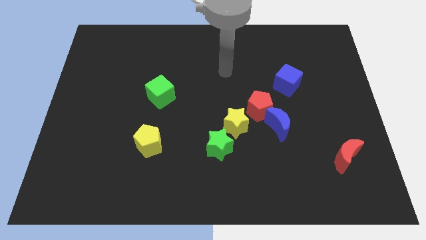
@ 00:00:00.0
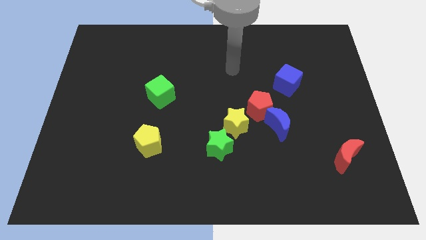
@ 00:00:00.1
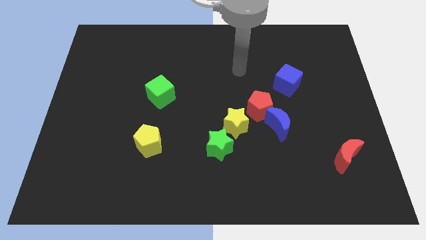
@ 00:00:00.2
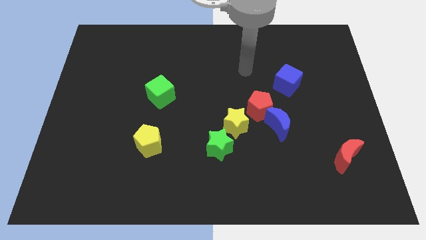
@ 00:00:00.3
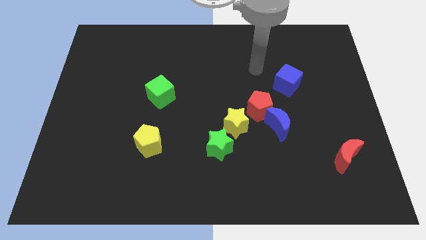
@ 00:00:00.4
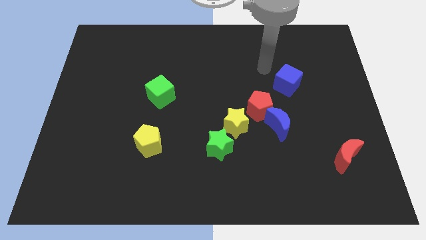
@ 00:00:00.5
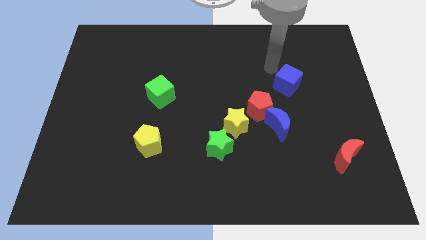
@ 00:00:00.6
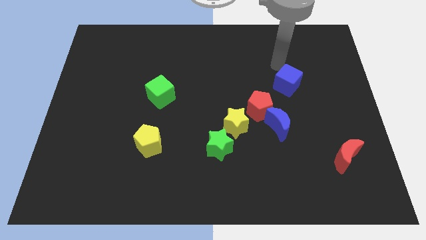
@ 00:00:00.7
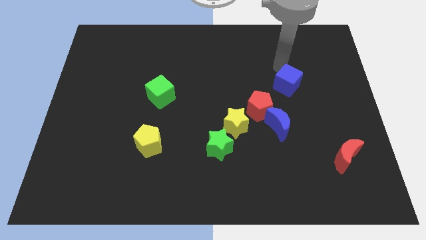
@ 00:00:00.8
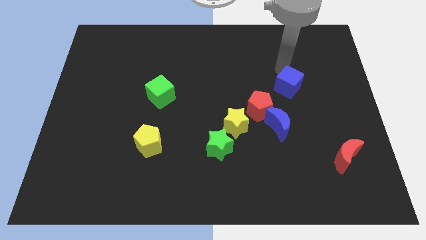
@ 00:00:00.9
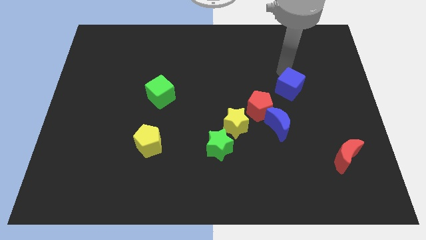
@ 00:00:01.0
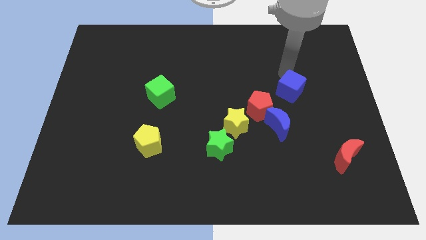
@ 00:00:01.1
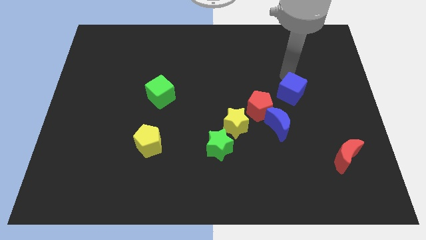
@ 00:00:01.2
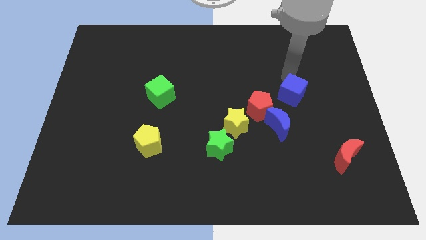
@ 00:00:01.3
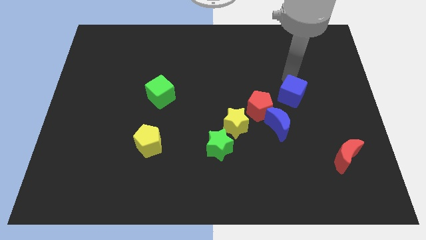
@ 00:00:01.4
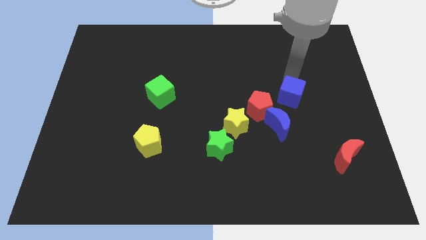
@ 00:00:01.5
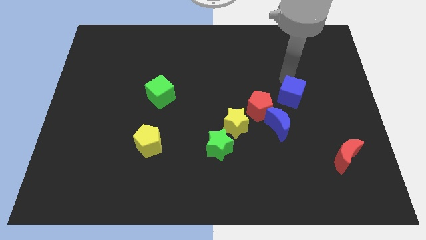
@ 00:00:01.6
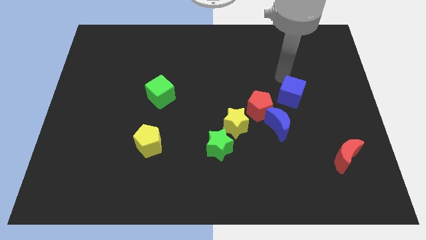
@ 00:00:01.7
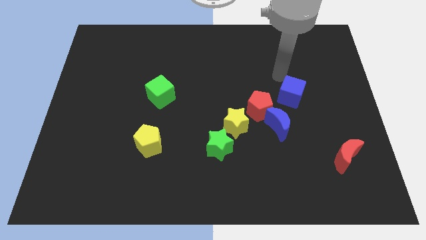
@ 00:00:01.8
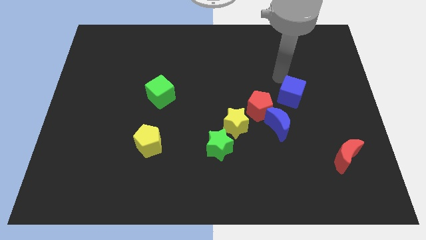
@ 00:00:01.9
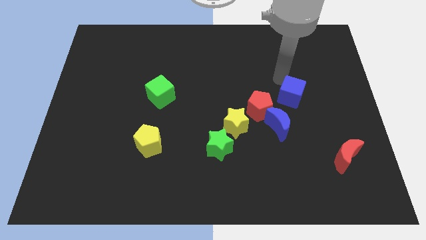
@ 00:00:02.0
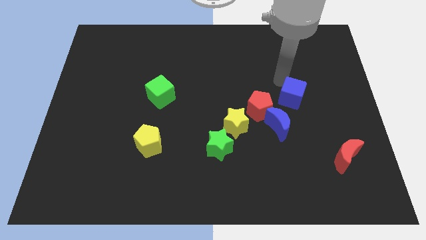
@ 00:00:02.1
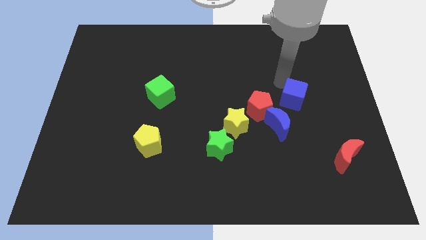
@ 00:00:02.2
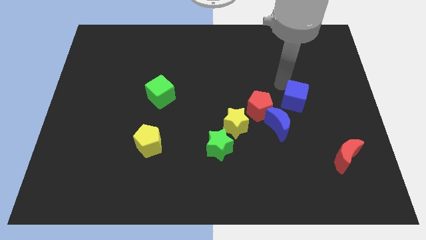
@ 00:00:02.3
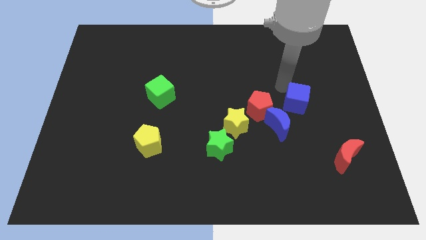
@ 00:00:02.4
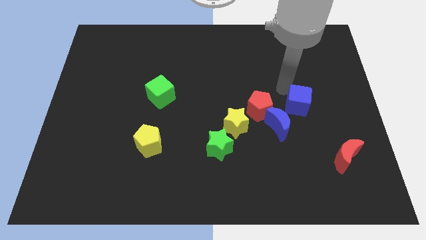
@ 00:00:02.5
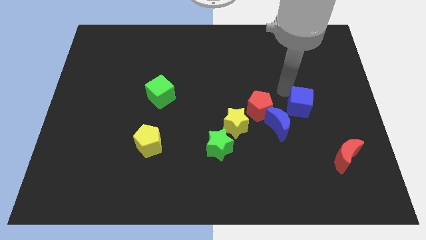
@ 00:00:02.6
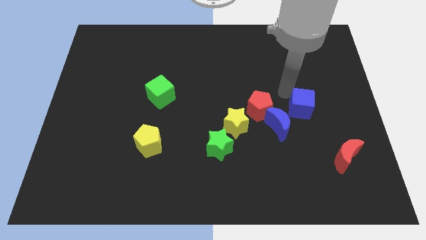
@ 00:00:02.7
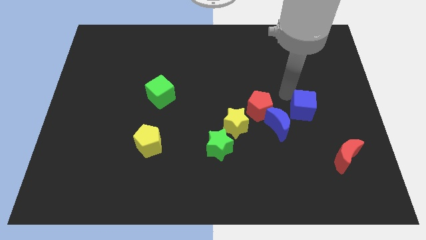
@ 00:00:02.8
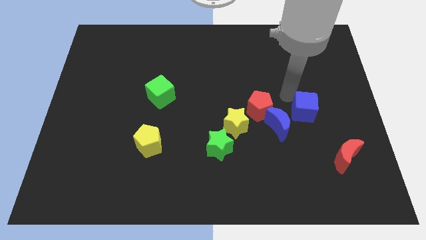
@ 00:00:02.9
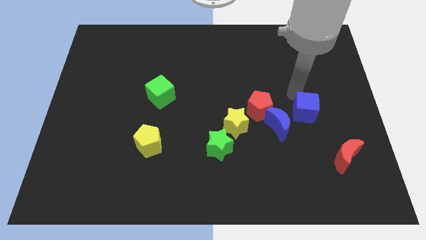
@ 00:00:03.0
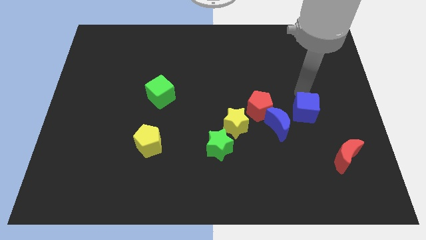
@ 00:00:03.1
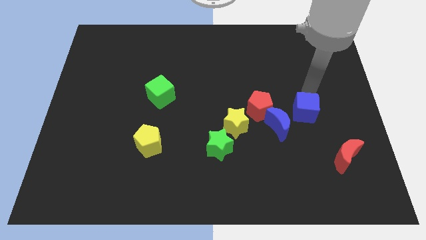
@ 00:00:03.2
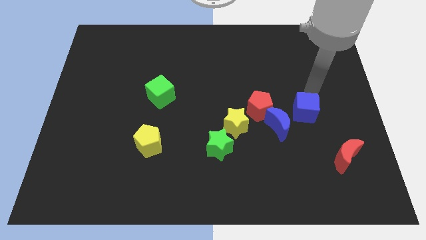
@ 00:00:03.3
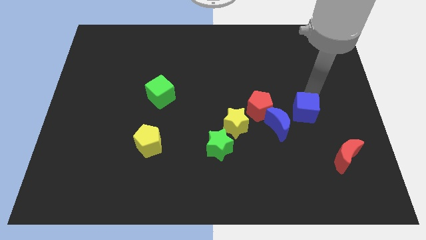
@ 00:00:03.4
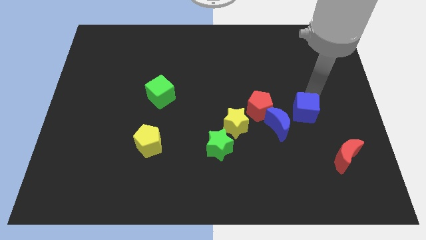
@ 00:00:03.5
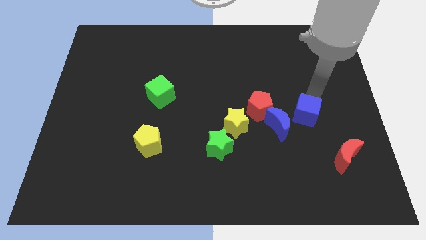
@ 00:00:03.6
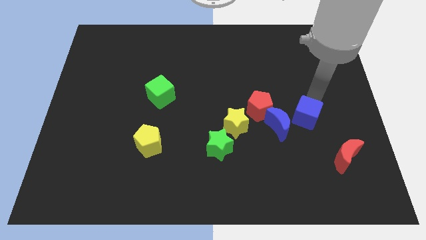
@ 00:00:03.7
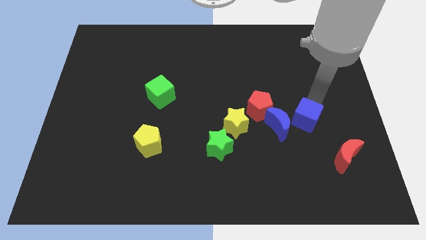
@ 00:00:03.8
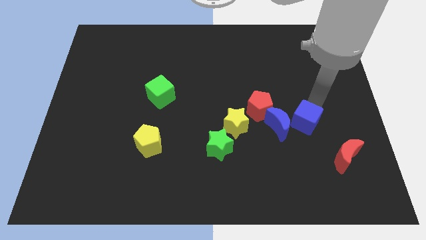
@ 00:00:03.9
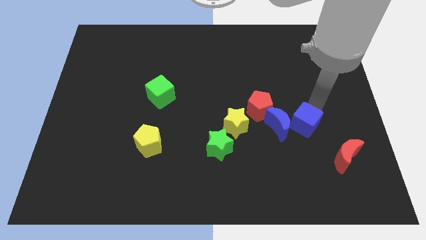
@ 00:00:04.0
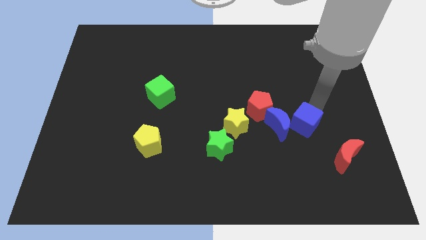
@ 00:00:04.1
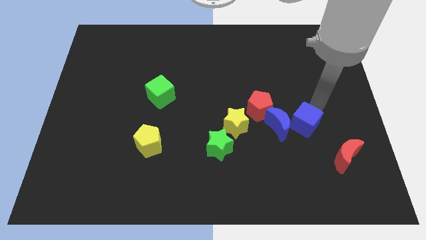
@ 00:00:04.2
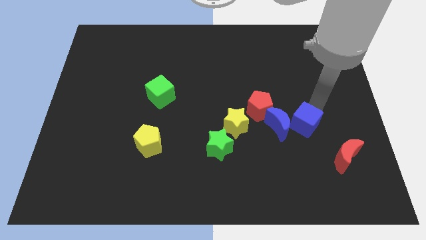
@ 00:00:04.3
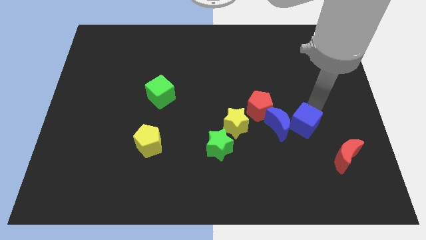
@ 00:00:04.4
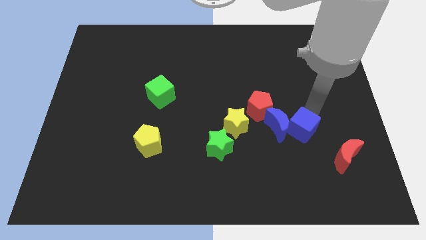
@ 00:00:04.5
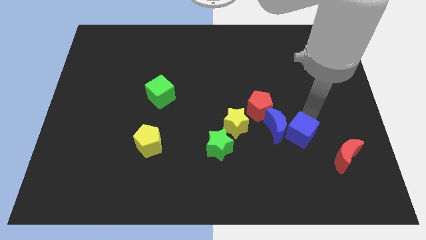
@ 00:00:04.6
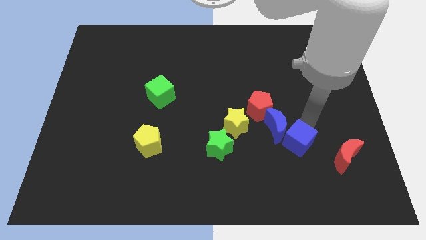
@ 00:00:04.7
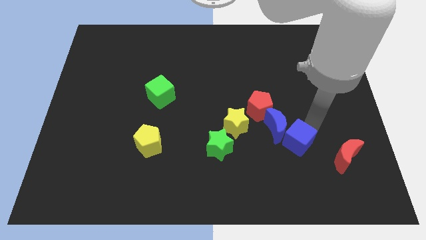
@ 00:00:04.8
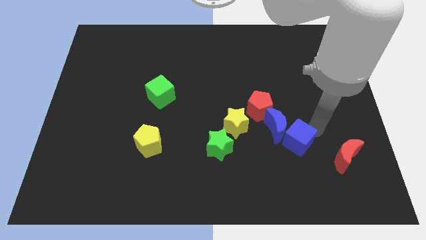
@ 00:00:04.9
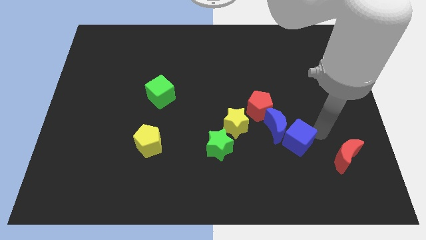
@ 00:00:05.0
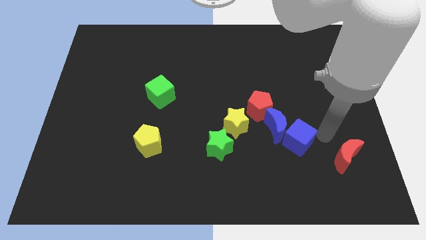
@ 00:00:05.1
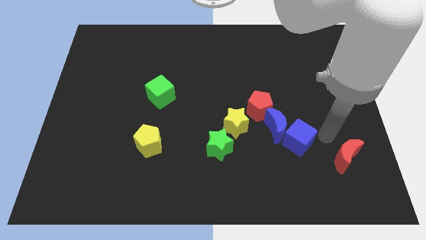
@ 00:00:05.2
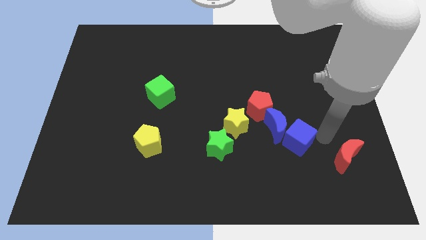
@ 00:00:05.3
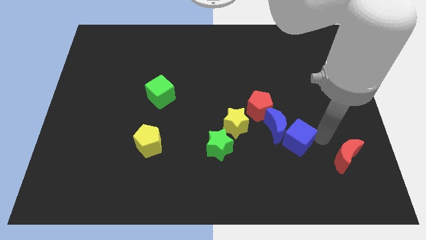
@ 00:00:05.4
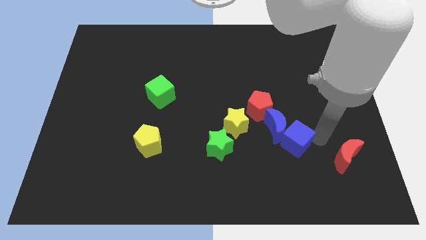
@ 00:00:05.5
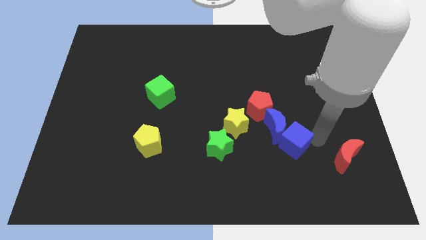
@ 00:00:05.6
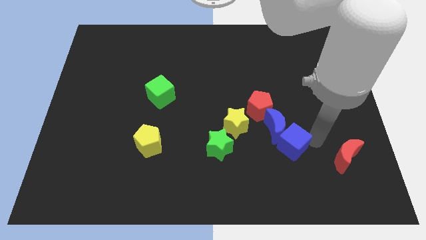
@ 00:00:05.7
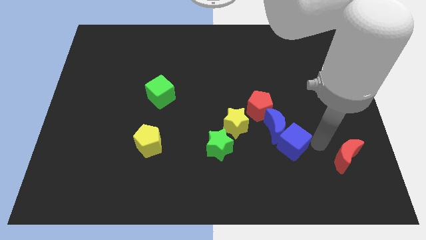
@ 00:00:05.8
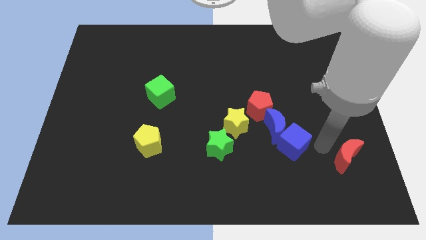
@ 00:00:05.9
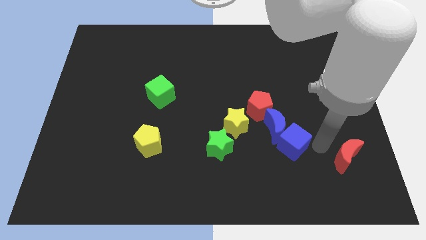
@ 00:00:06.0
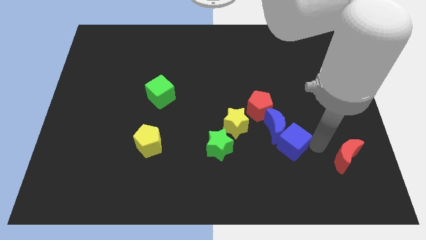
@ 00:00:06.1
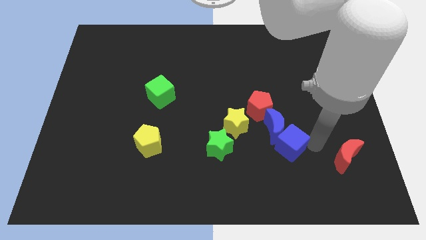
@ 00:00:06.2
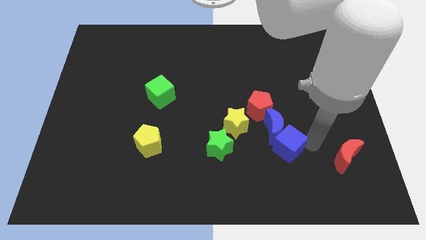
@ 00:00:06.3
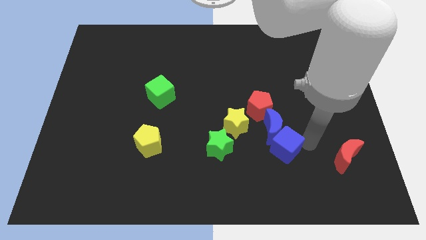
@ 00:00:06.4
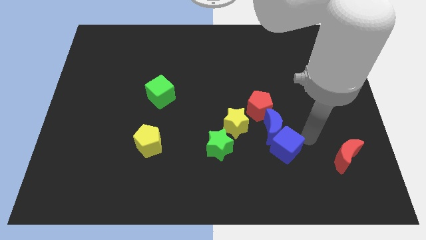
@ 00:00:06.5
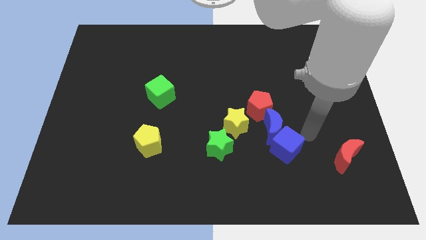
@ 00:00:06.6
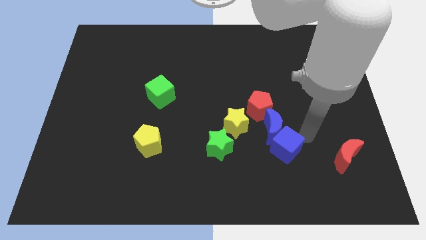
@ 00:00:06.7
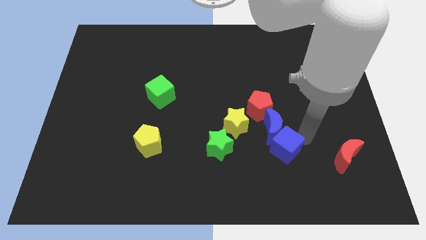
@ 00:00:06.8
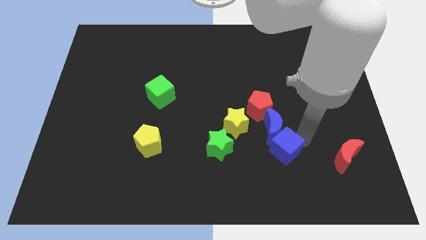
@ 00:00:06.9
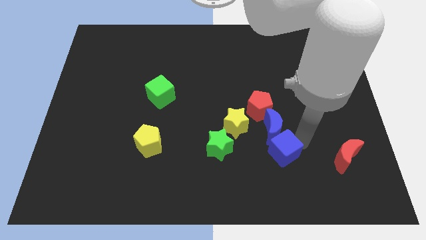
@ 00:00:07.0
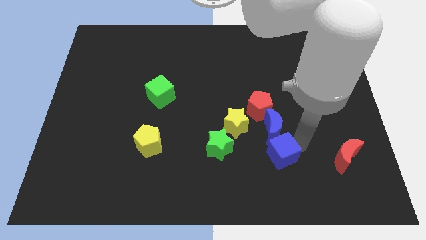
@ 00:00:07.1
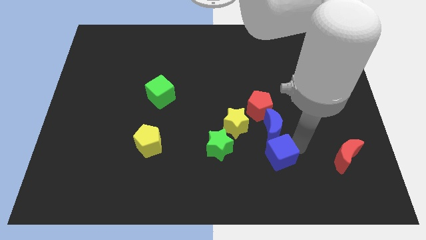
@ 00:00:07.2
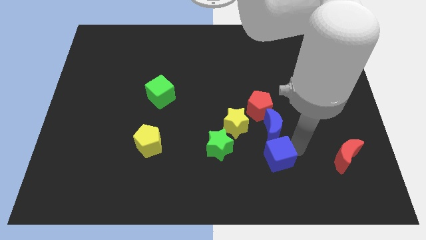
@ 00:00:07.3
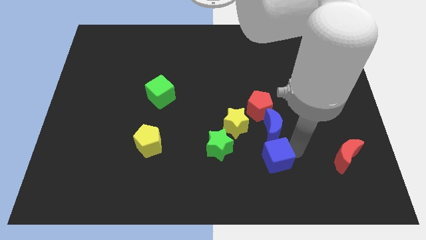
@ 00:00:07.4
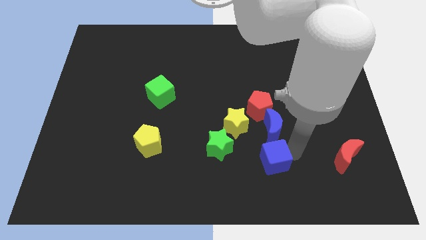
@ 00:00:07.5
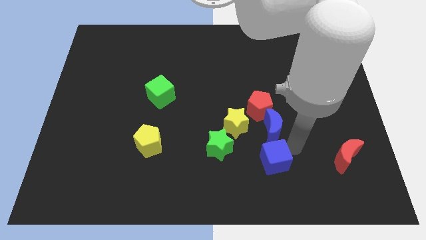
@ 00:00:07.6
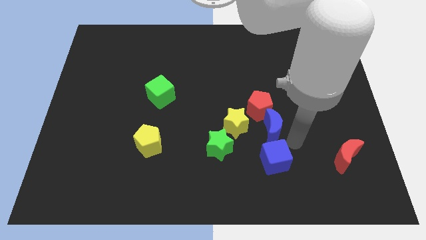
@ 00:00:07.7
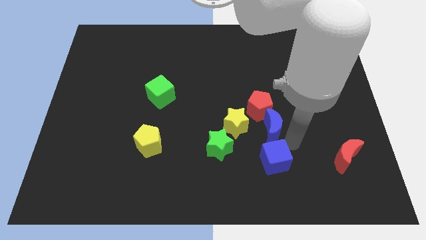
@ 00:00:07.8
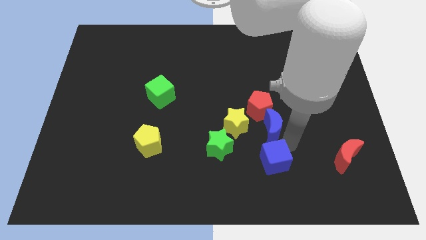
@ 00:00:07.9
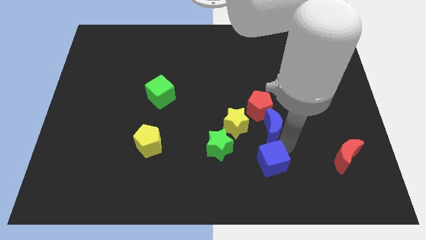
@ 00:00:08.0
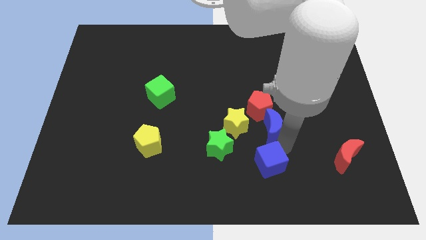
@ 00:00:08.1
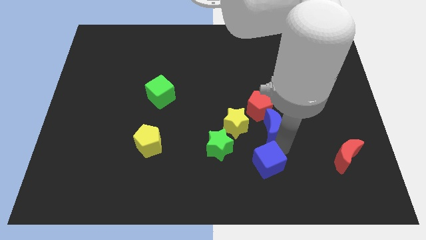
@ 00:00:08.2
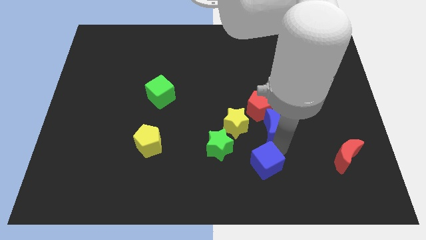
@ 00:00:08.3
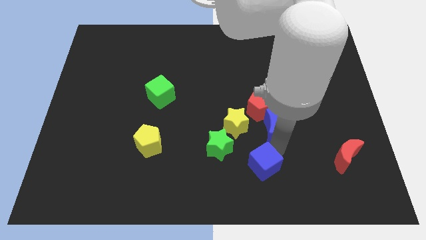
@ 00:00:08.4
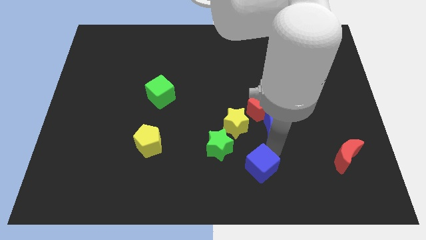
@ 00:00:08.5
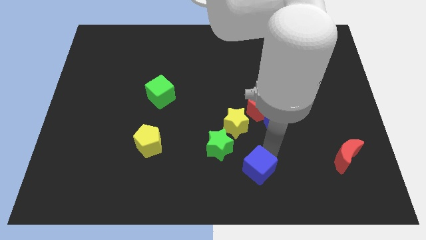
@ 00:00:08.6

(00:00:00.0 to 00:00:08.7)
put the blue cube to the bottom side
